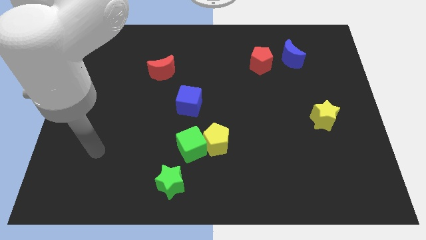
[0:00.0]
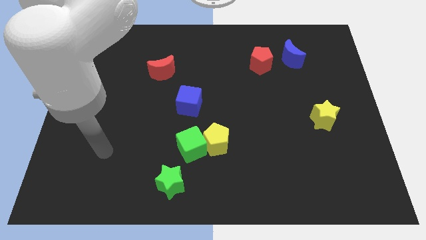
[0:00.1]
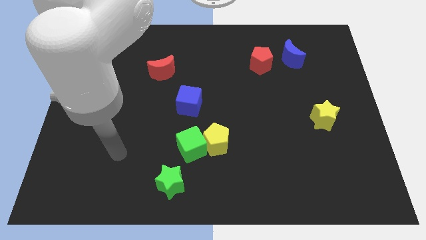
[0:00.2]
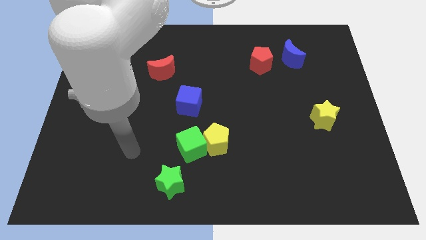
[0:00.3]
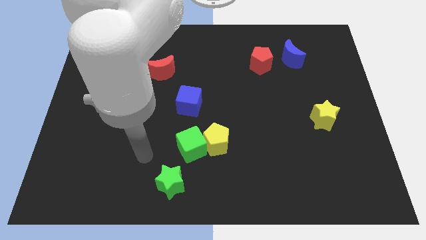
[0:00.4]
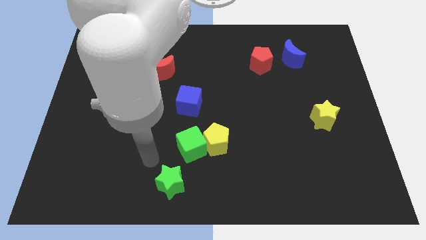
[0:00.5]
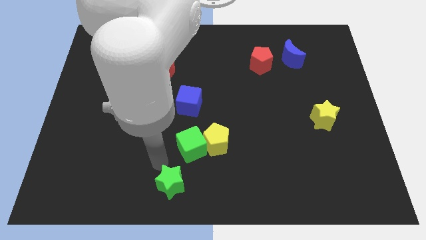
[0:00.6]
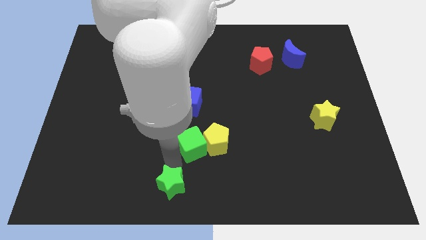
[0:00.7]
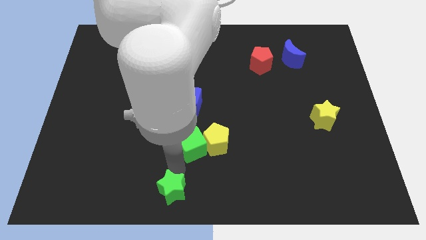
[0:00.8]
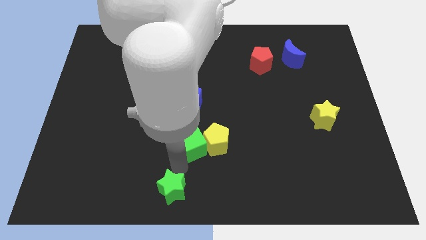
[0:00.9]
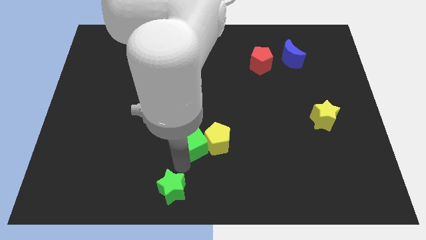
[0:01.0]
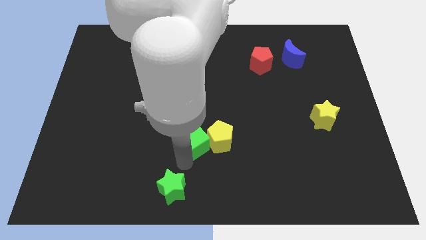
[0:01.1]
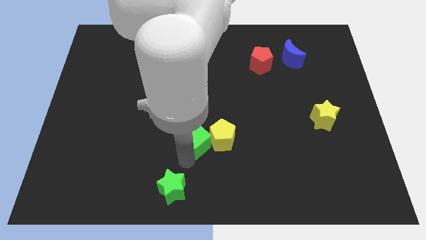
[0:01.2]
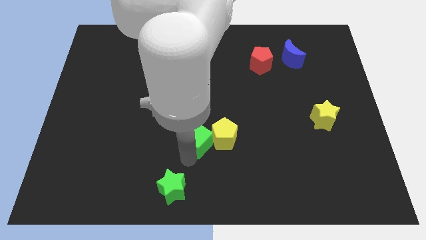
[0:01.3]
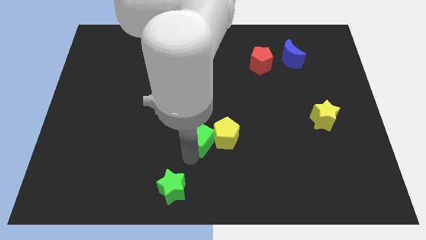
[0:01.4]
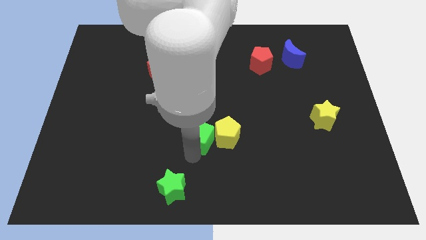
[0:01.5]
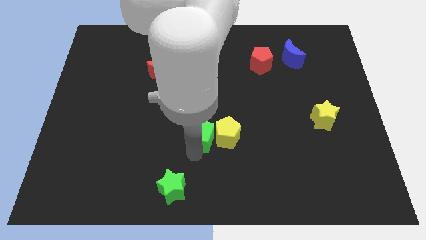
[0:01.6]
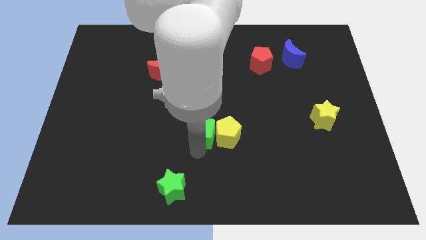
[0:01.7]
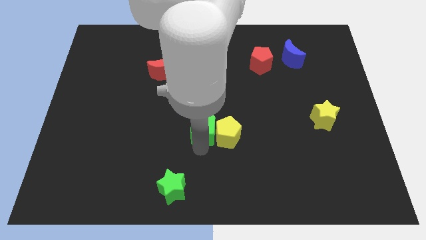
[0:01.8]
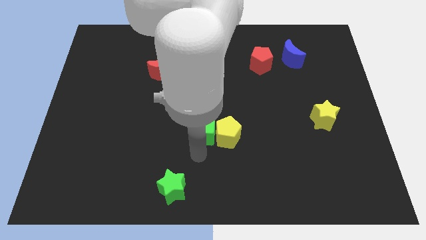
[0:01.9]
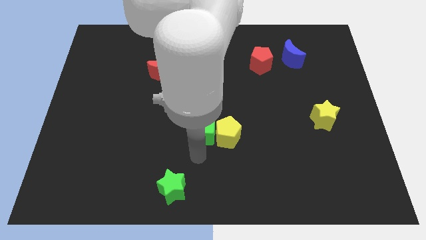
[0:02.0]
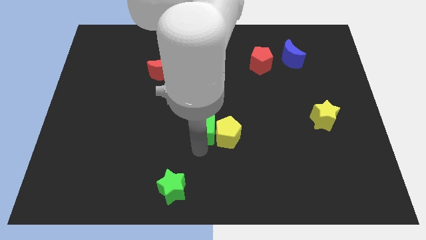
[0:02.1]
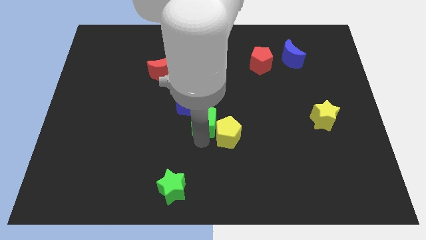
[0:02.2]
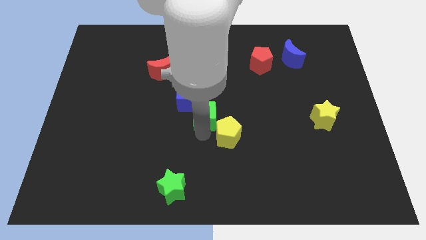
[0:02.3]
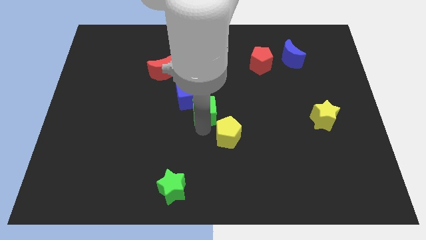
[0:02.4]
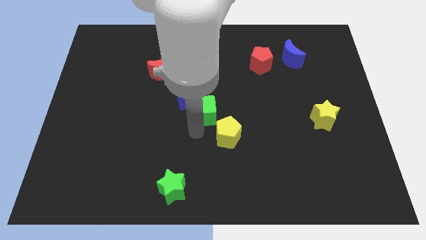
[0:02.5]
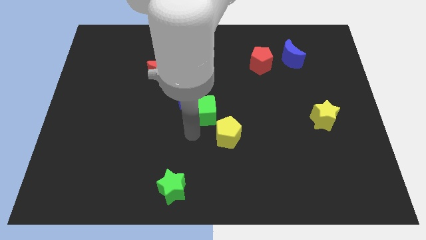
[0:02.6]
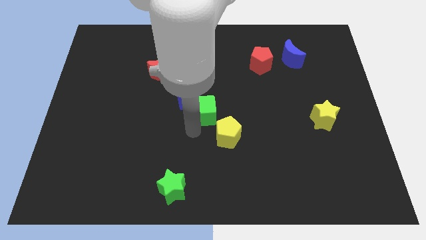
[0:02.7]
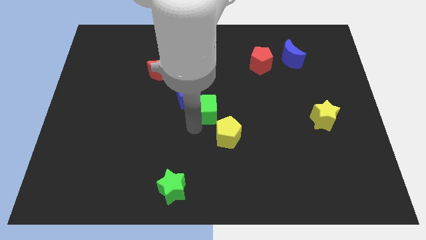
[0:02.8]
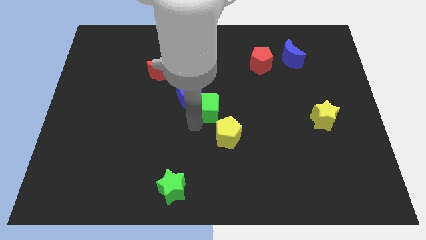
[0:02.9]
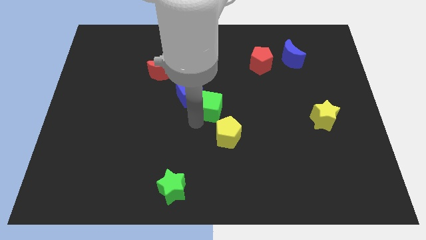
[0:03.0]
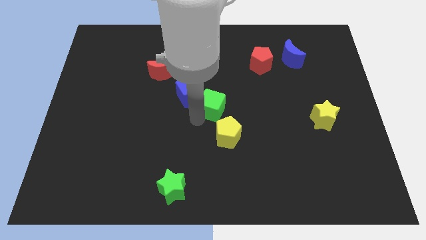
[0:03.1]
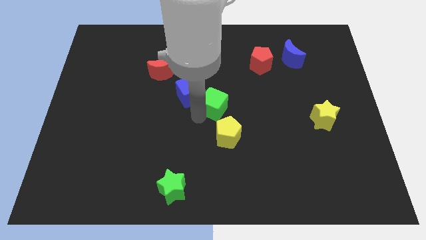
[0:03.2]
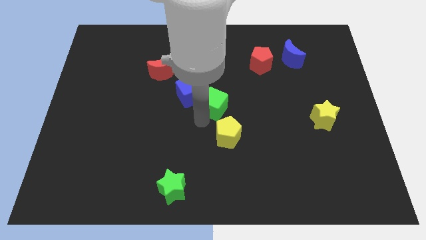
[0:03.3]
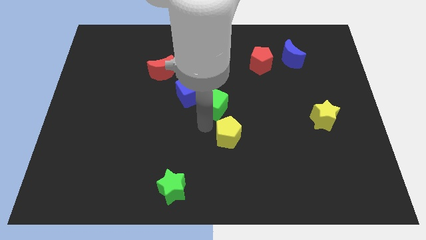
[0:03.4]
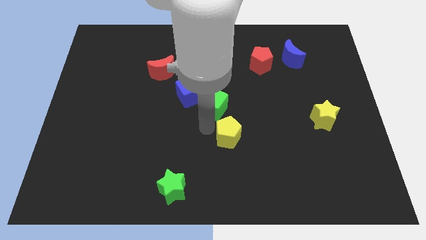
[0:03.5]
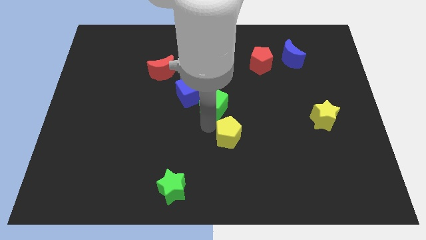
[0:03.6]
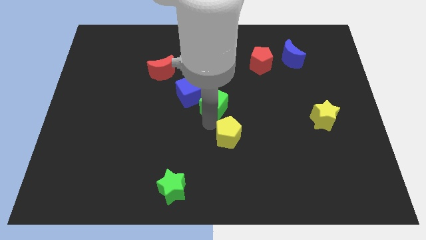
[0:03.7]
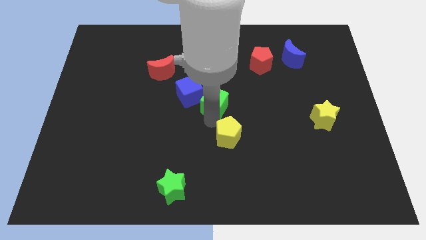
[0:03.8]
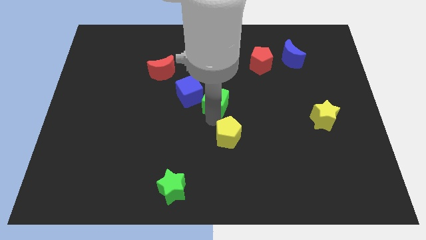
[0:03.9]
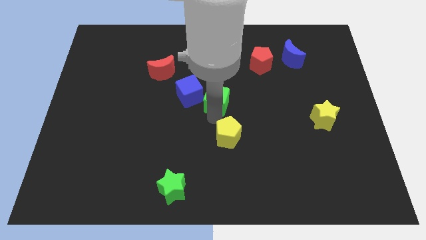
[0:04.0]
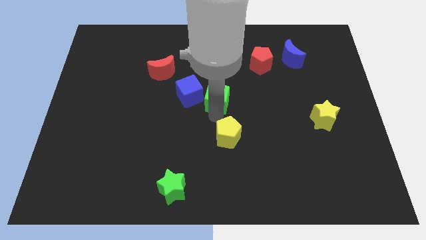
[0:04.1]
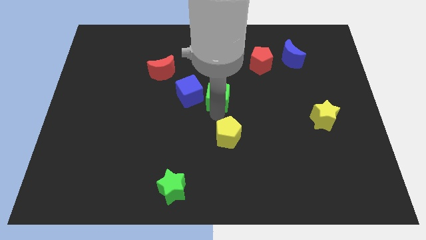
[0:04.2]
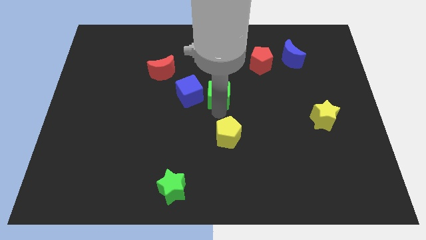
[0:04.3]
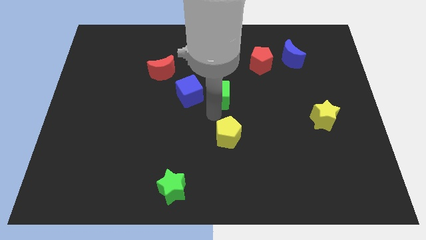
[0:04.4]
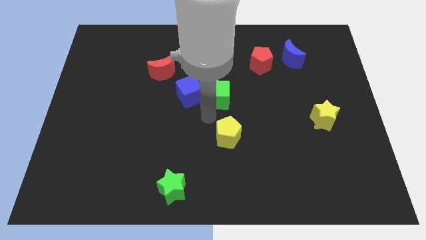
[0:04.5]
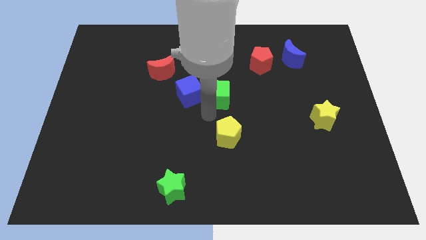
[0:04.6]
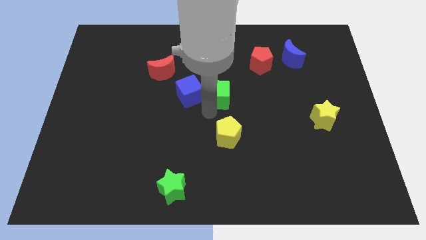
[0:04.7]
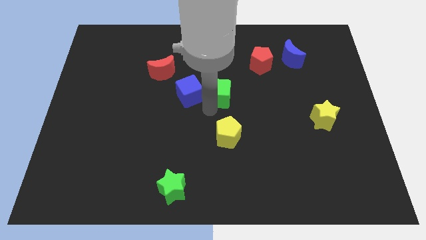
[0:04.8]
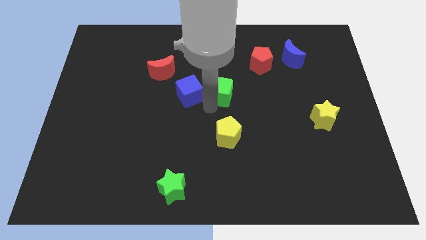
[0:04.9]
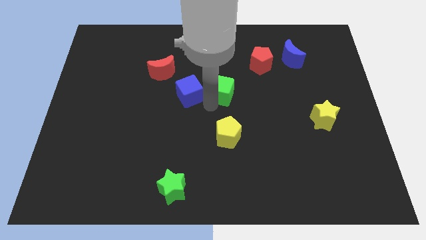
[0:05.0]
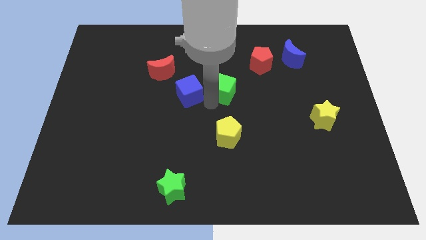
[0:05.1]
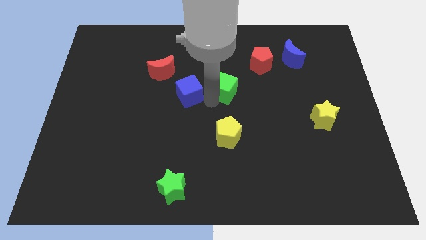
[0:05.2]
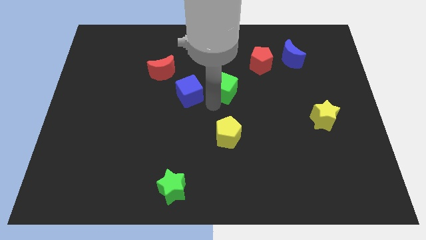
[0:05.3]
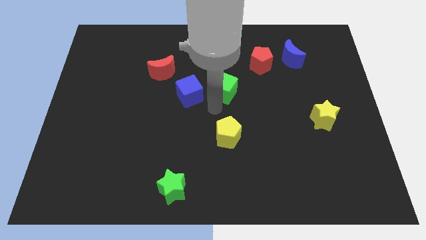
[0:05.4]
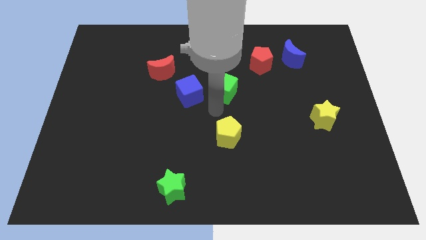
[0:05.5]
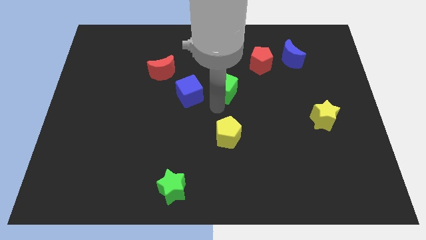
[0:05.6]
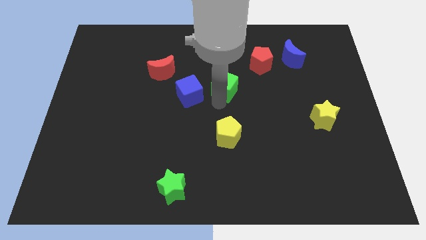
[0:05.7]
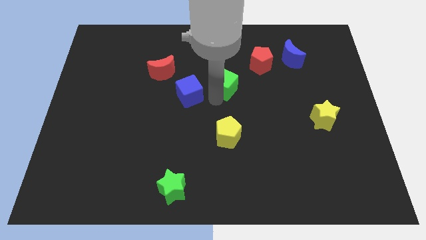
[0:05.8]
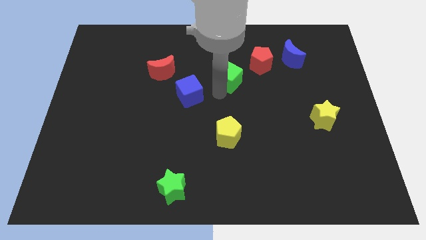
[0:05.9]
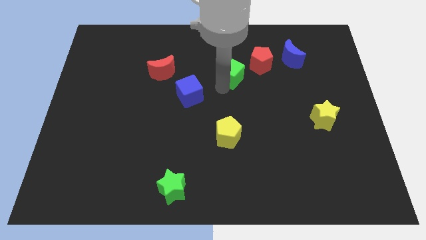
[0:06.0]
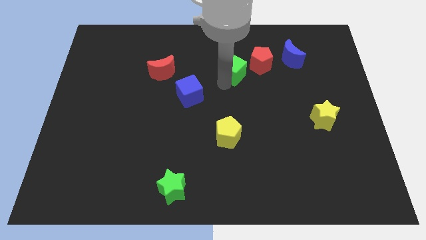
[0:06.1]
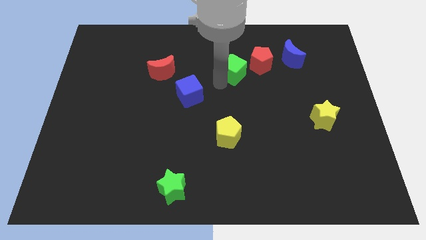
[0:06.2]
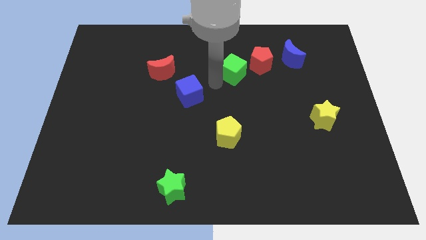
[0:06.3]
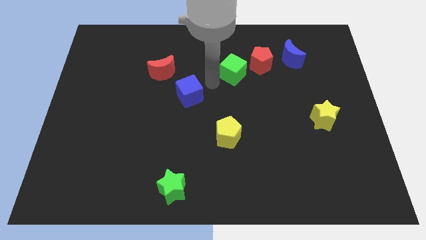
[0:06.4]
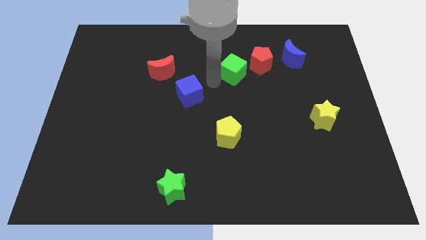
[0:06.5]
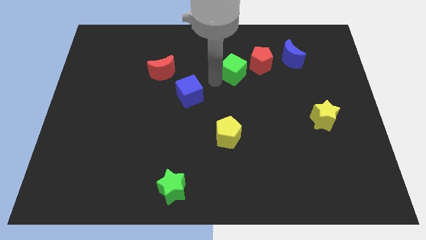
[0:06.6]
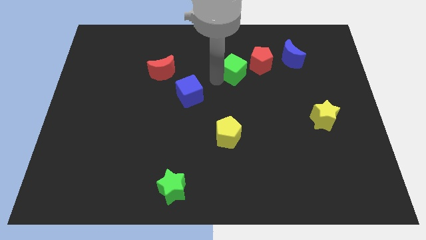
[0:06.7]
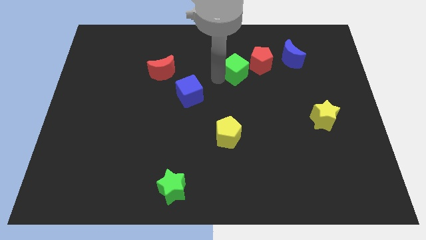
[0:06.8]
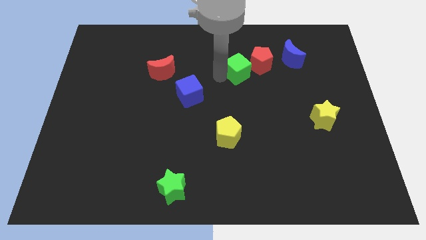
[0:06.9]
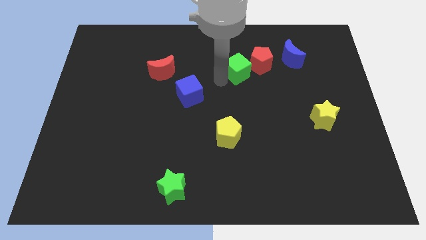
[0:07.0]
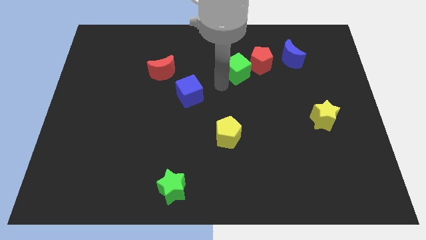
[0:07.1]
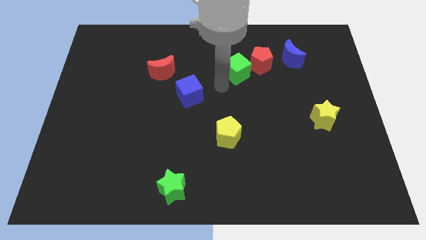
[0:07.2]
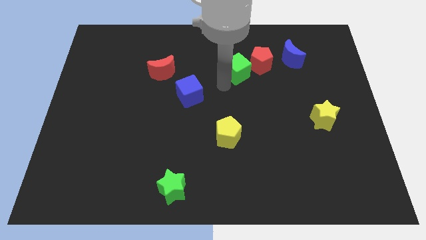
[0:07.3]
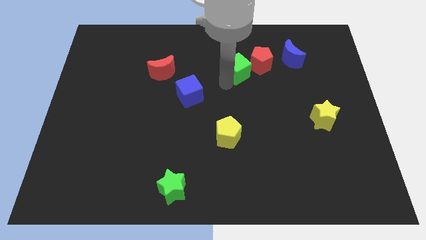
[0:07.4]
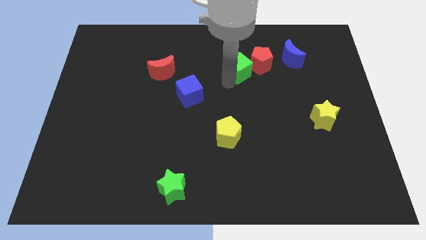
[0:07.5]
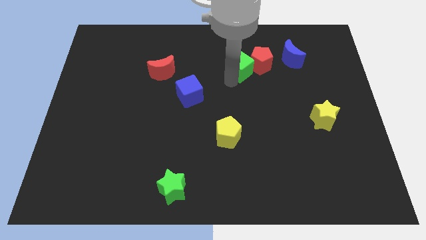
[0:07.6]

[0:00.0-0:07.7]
slide the green cube left of the blue moon
